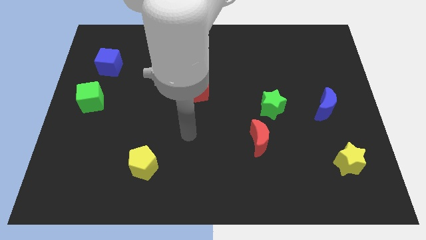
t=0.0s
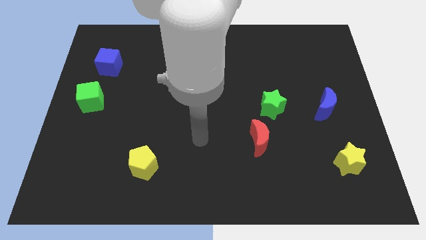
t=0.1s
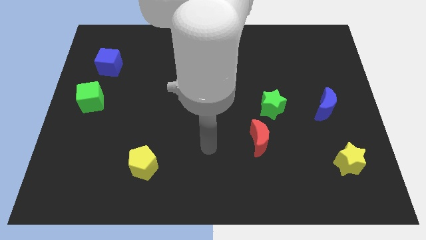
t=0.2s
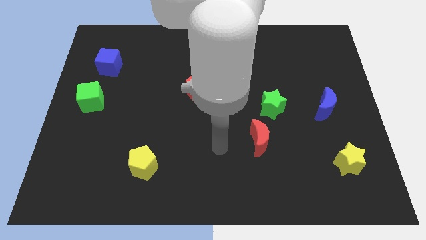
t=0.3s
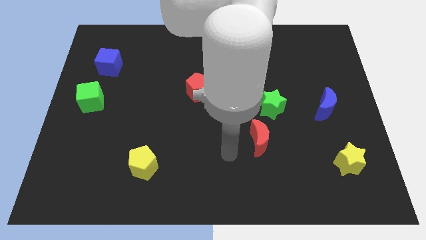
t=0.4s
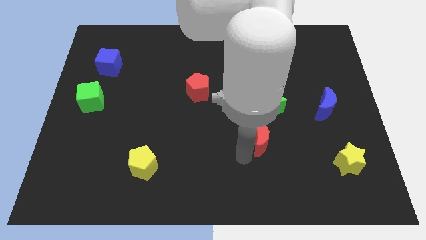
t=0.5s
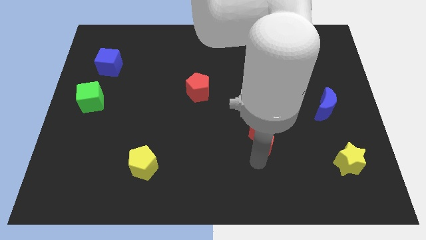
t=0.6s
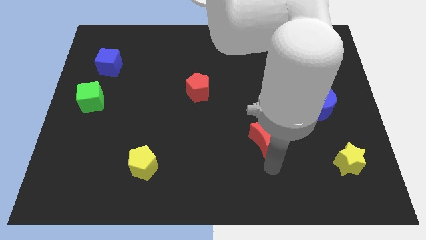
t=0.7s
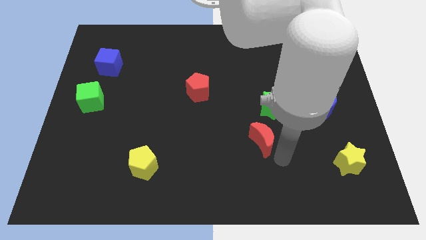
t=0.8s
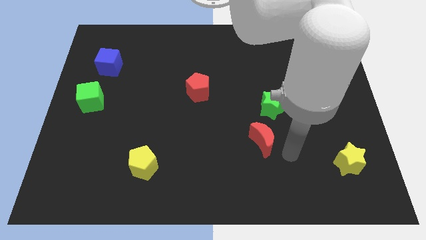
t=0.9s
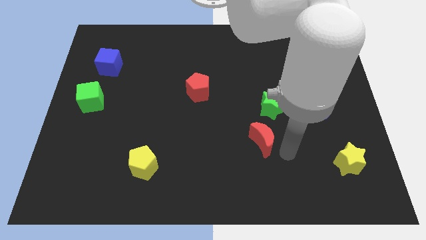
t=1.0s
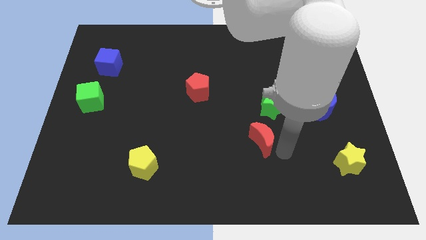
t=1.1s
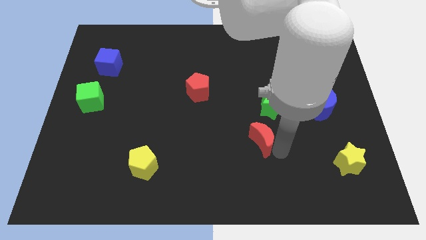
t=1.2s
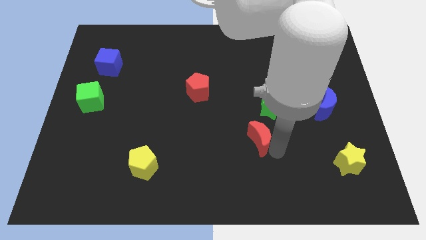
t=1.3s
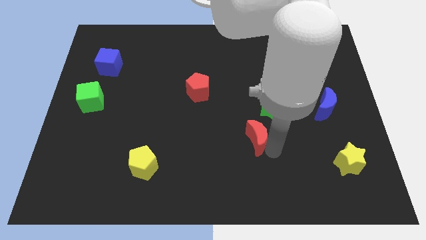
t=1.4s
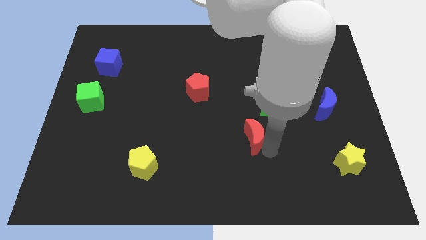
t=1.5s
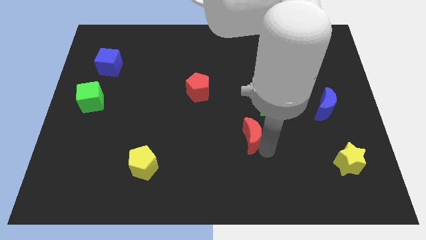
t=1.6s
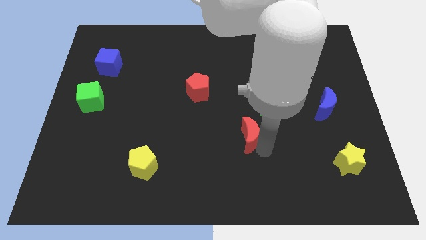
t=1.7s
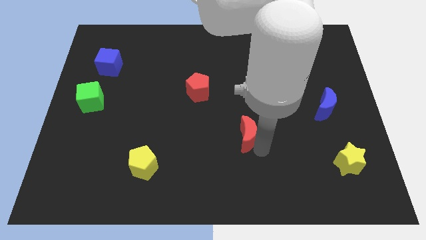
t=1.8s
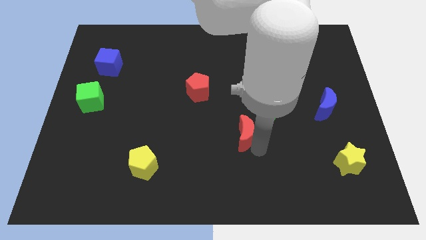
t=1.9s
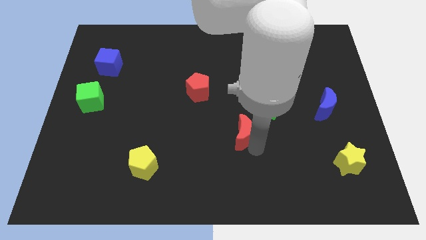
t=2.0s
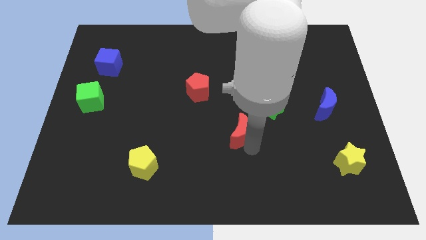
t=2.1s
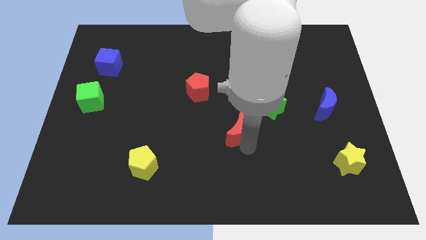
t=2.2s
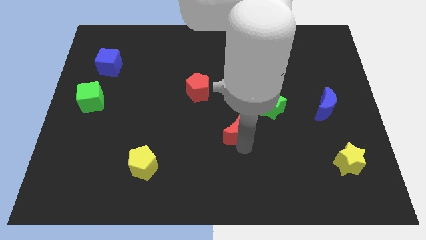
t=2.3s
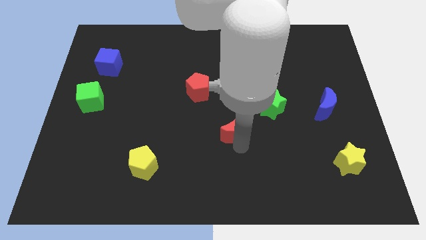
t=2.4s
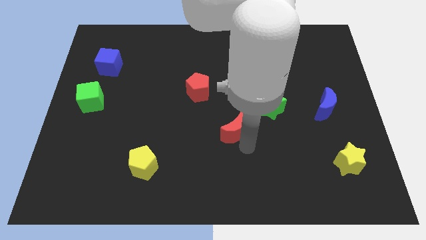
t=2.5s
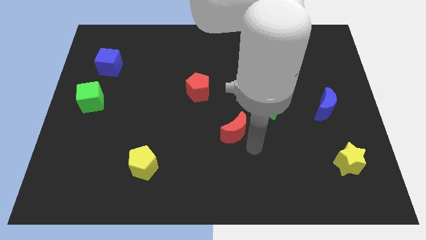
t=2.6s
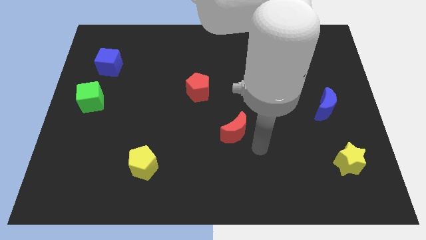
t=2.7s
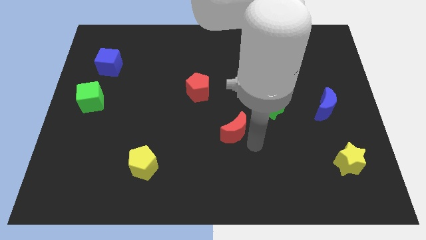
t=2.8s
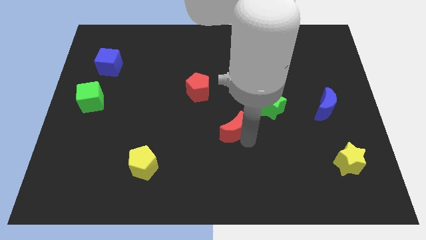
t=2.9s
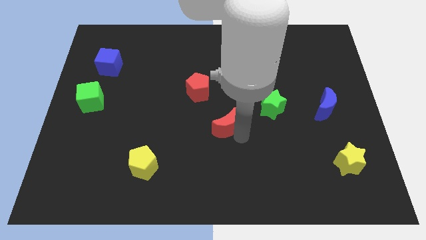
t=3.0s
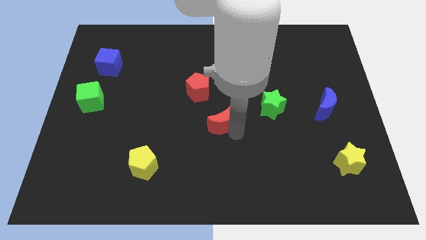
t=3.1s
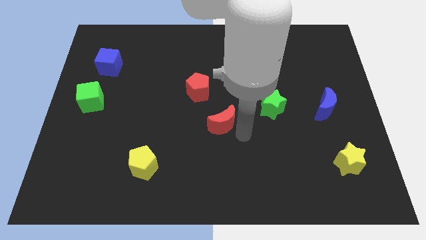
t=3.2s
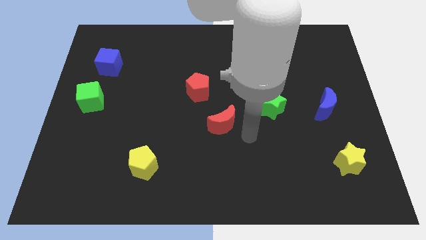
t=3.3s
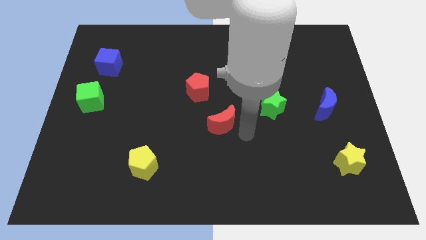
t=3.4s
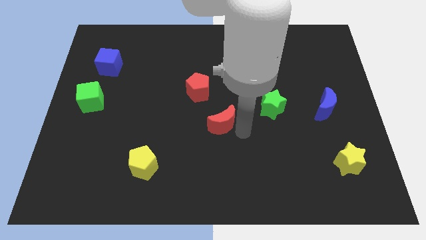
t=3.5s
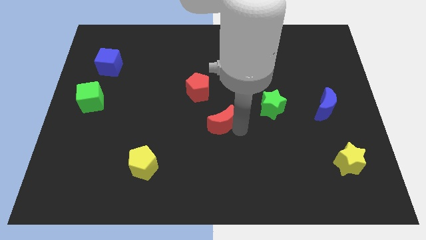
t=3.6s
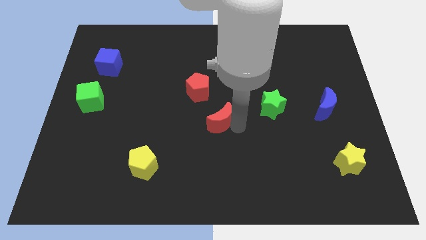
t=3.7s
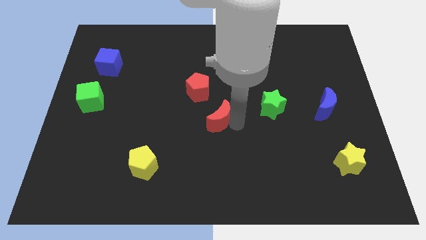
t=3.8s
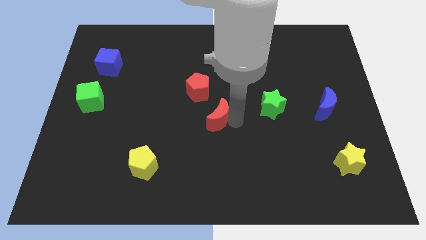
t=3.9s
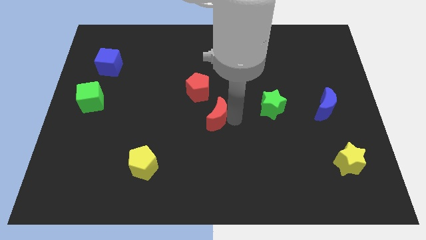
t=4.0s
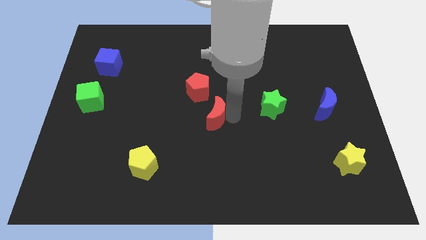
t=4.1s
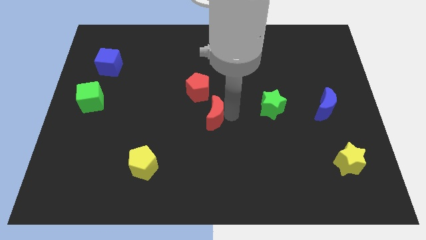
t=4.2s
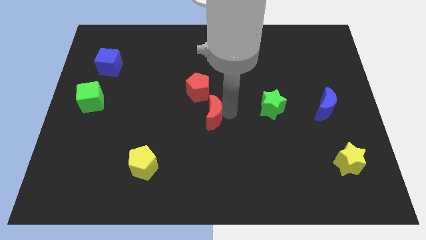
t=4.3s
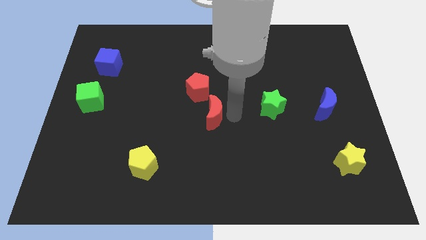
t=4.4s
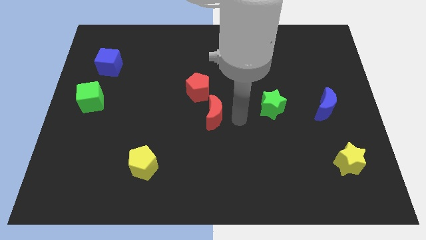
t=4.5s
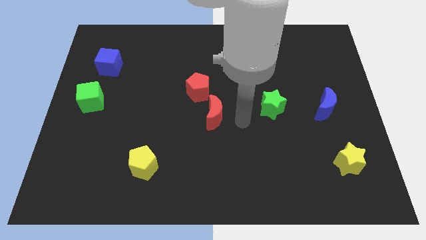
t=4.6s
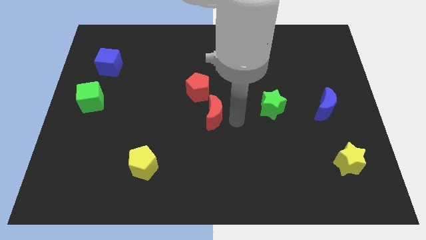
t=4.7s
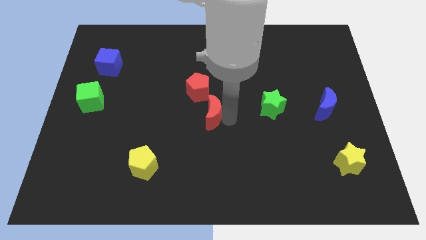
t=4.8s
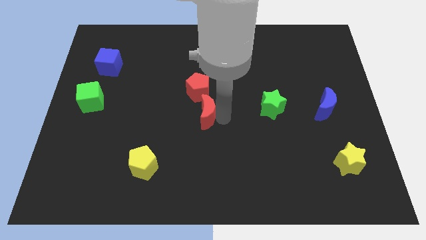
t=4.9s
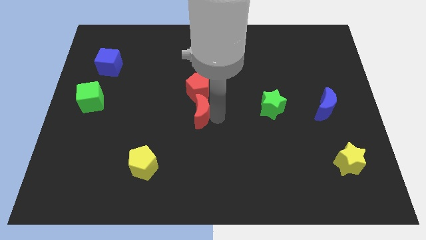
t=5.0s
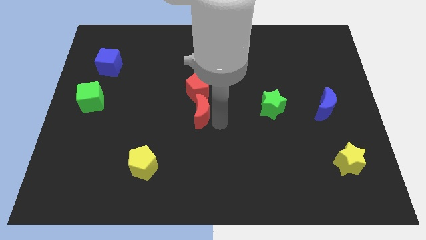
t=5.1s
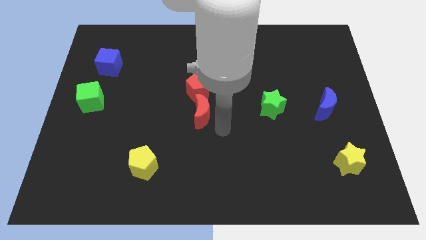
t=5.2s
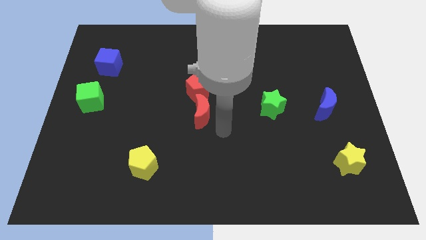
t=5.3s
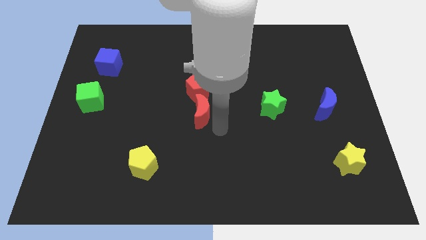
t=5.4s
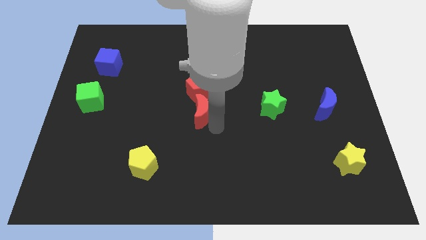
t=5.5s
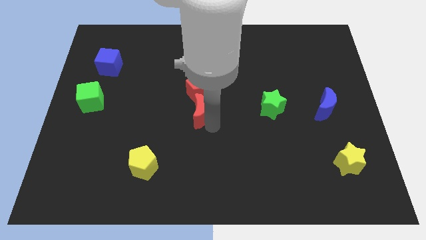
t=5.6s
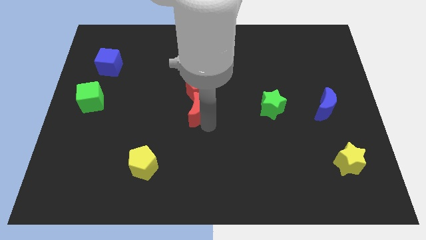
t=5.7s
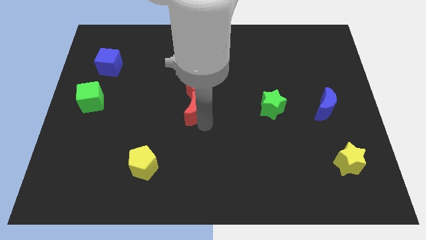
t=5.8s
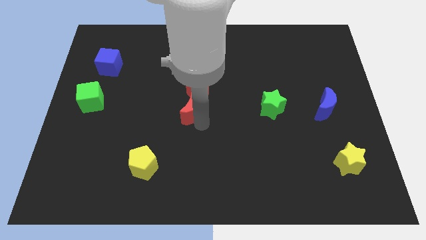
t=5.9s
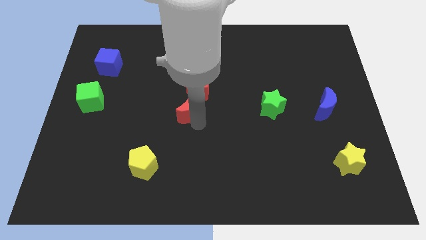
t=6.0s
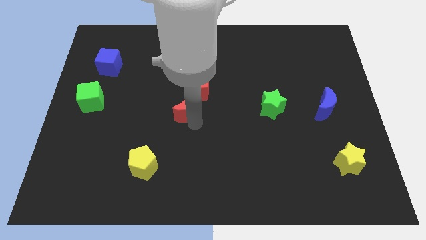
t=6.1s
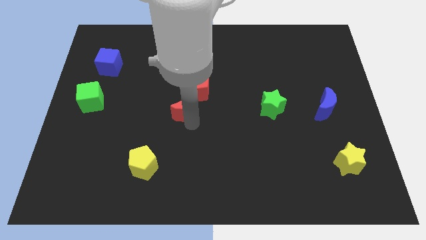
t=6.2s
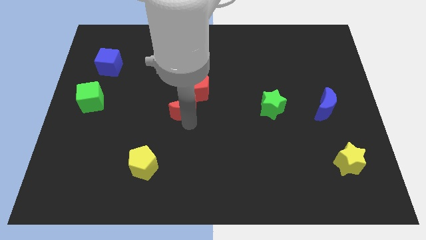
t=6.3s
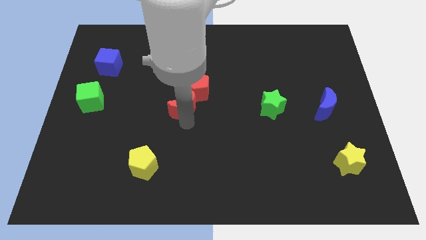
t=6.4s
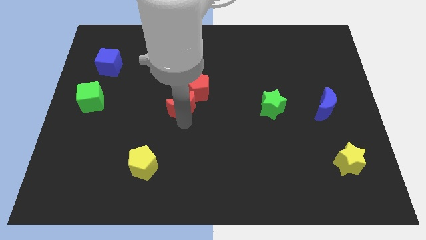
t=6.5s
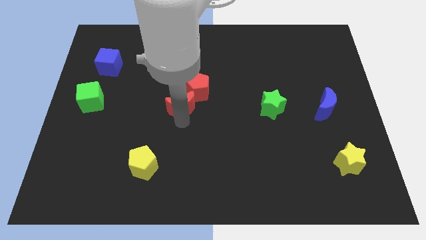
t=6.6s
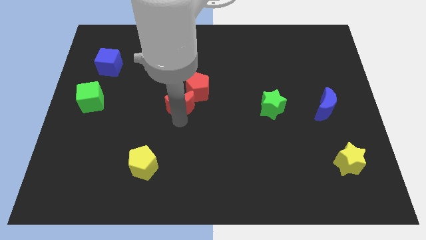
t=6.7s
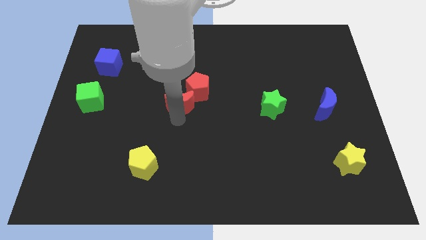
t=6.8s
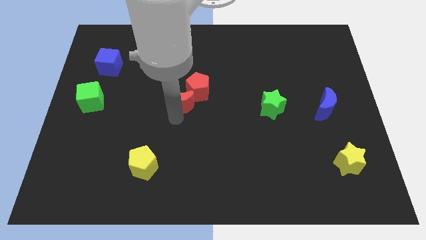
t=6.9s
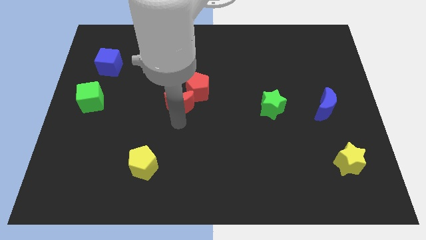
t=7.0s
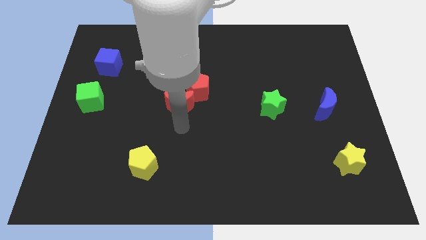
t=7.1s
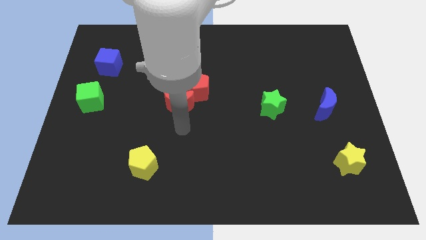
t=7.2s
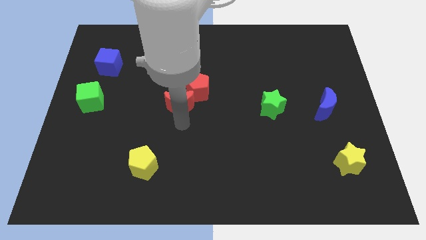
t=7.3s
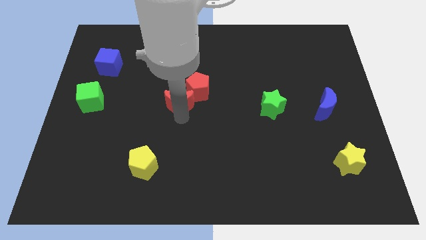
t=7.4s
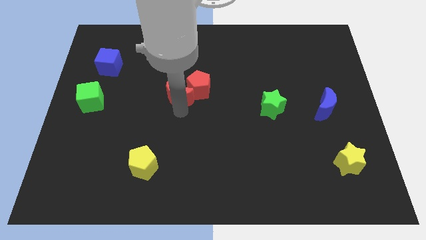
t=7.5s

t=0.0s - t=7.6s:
slide the red moon upwards and then left

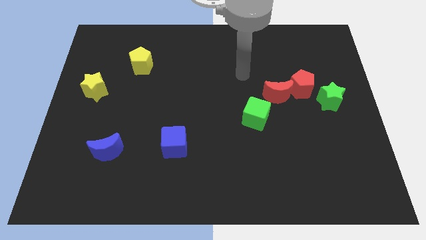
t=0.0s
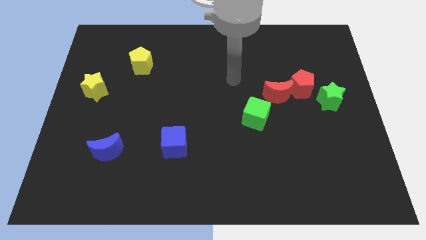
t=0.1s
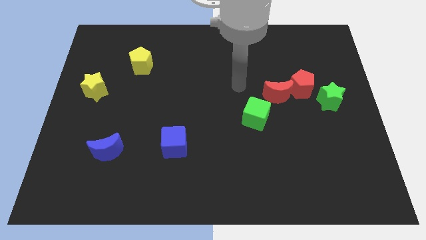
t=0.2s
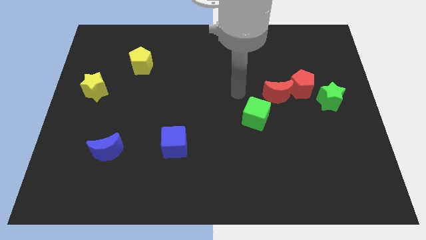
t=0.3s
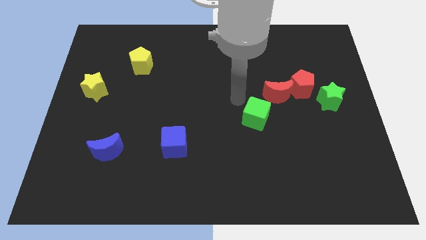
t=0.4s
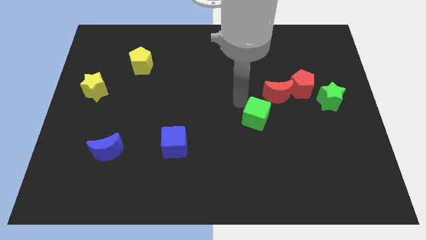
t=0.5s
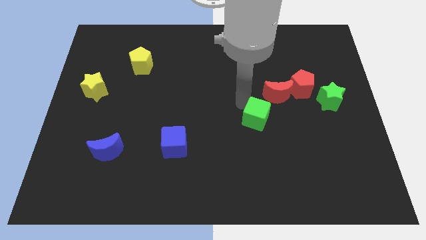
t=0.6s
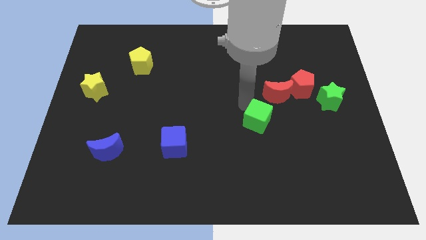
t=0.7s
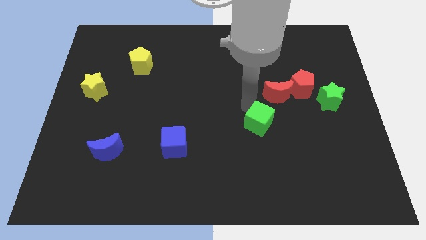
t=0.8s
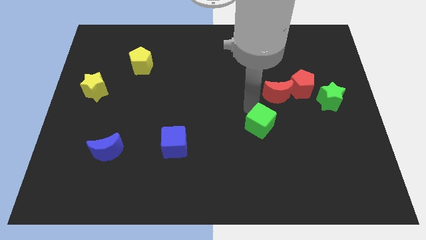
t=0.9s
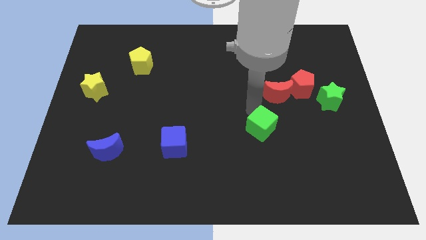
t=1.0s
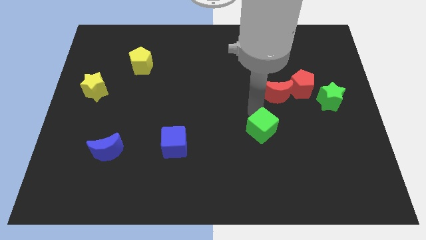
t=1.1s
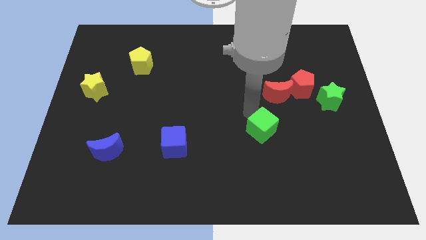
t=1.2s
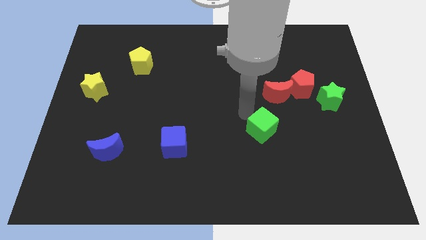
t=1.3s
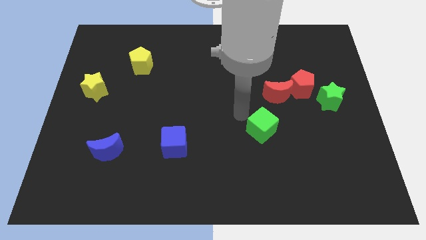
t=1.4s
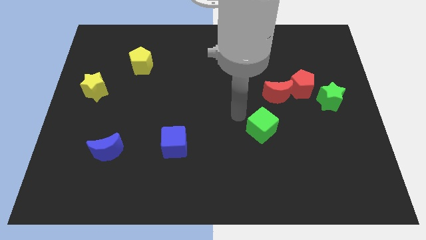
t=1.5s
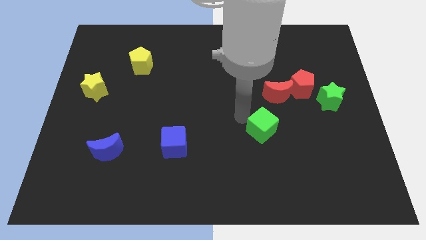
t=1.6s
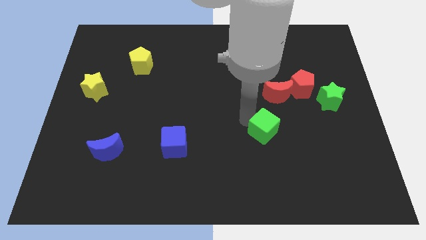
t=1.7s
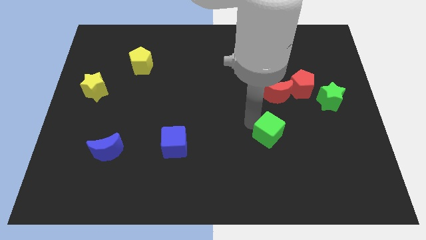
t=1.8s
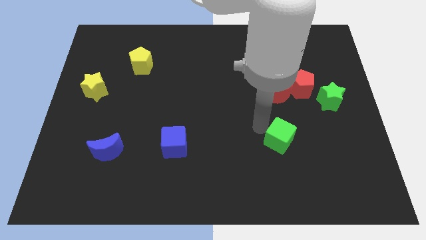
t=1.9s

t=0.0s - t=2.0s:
push the green cube slightly diagonally downwards and to the right
